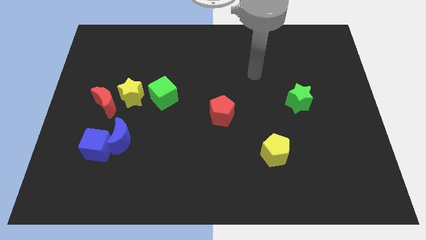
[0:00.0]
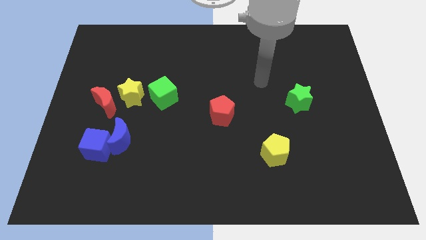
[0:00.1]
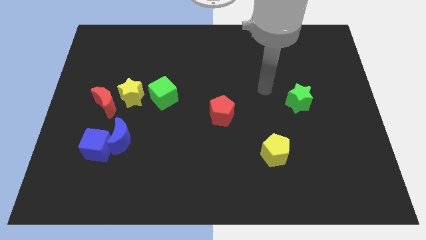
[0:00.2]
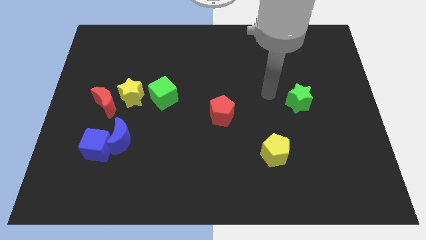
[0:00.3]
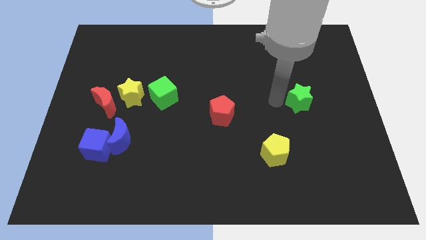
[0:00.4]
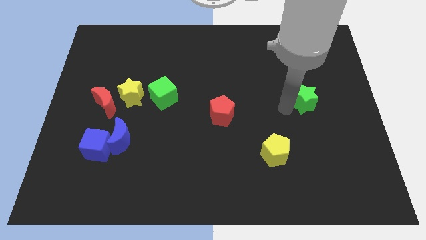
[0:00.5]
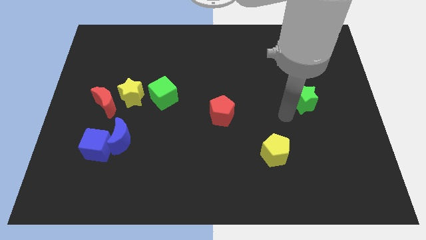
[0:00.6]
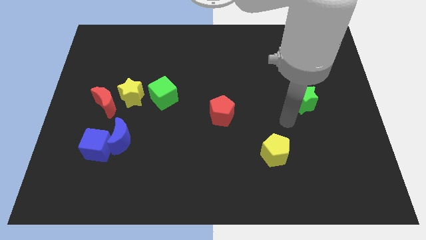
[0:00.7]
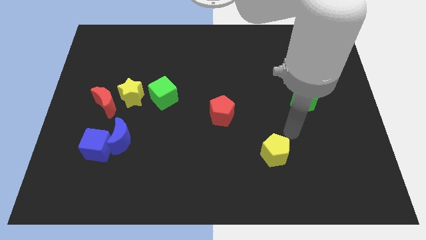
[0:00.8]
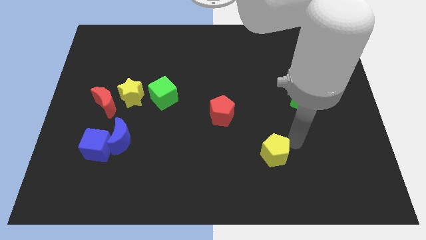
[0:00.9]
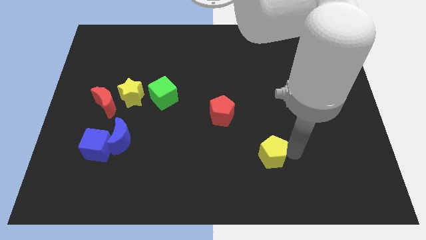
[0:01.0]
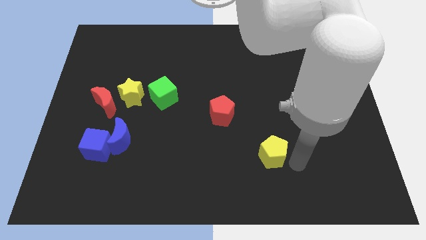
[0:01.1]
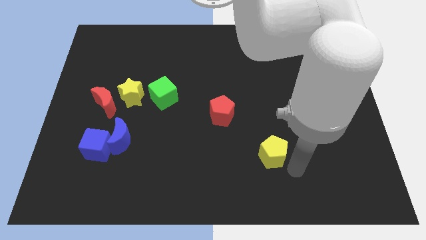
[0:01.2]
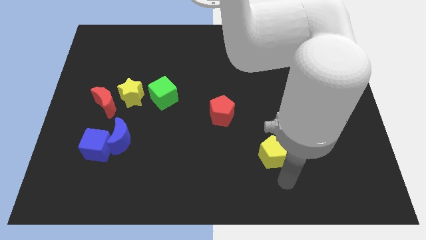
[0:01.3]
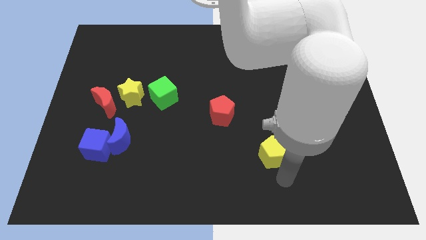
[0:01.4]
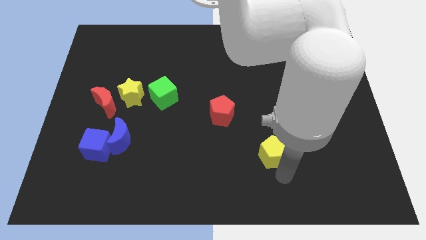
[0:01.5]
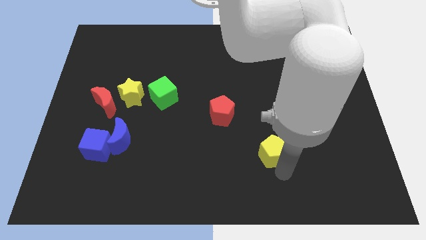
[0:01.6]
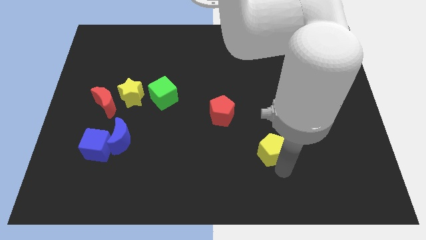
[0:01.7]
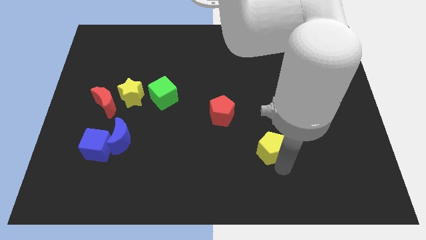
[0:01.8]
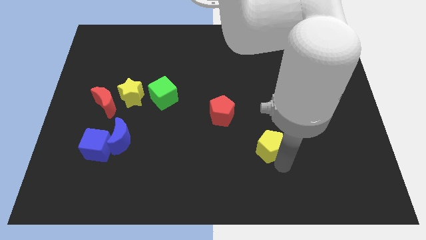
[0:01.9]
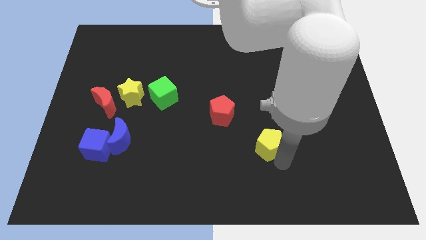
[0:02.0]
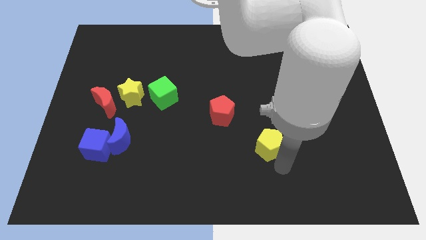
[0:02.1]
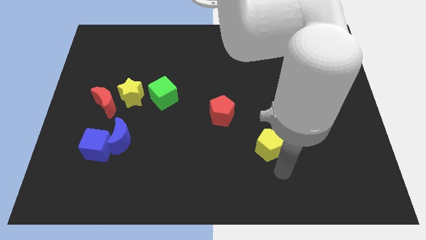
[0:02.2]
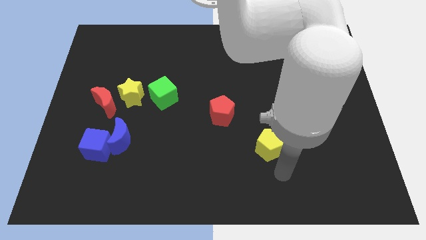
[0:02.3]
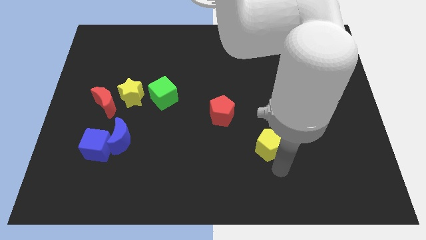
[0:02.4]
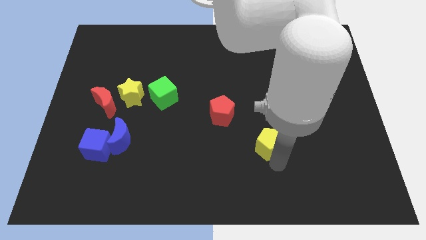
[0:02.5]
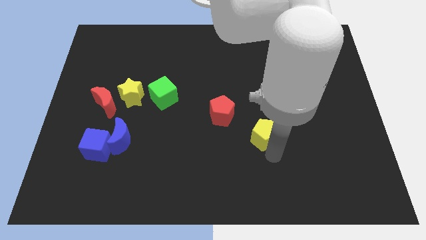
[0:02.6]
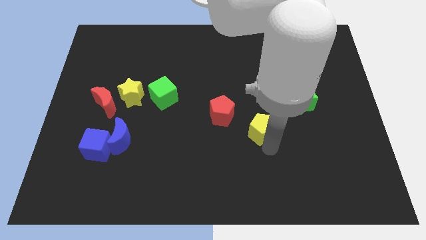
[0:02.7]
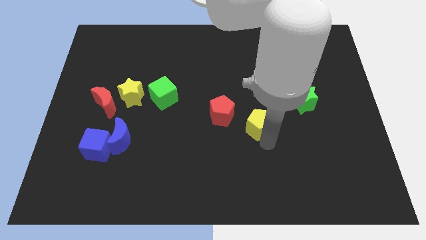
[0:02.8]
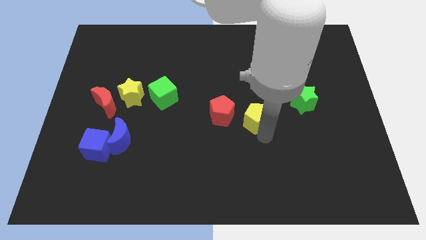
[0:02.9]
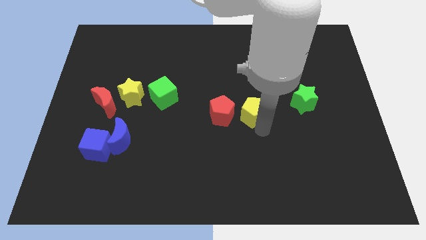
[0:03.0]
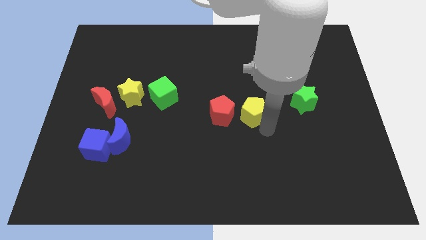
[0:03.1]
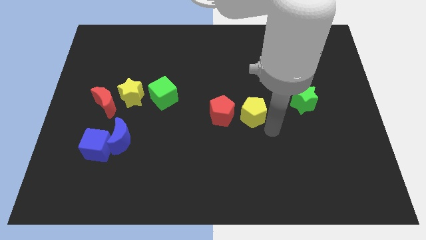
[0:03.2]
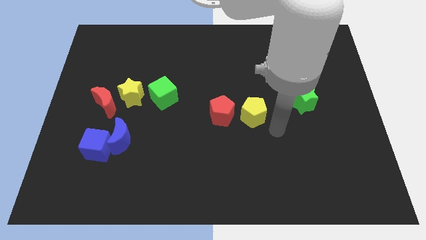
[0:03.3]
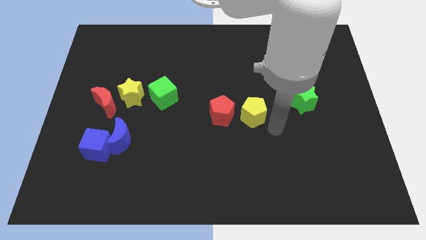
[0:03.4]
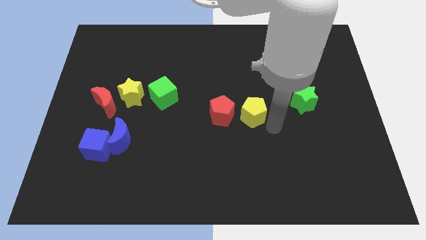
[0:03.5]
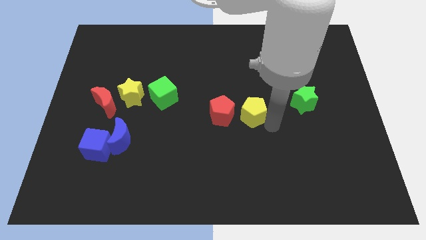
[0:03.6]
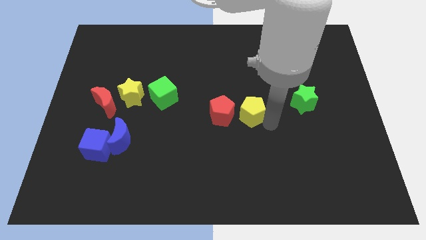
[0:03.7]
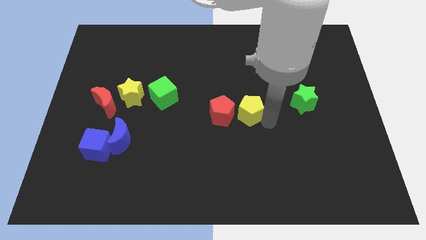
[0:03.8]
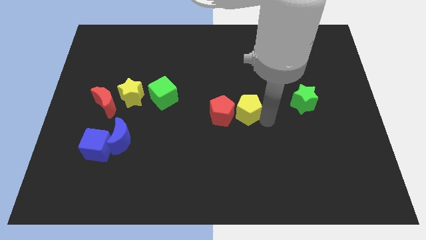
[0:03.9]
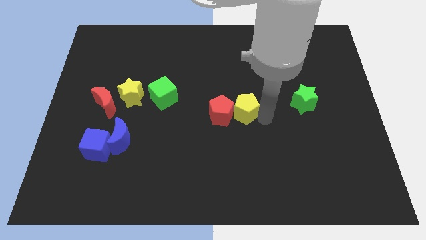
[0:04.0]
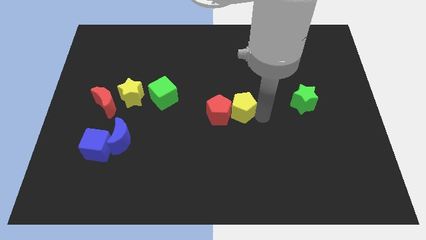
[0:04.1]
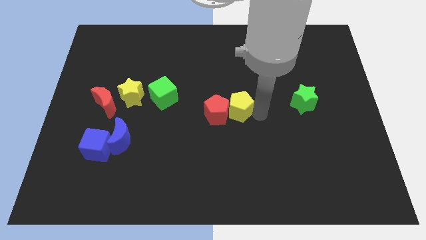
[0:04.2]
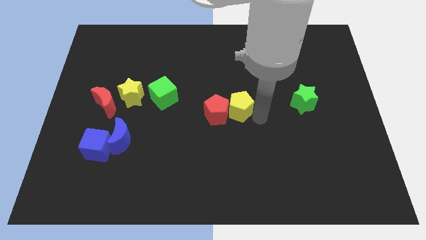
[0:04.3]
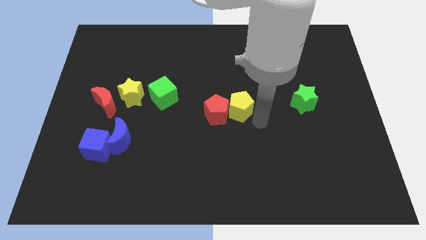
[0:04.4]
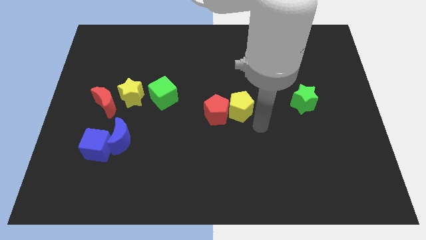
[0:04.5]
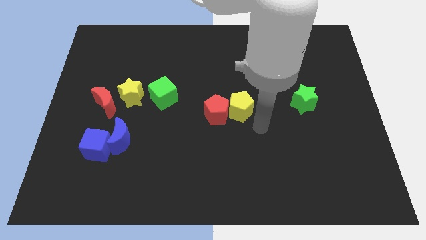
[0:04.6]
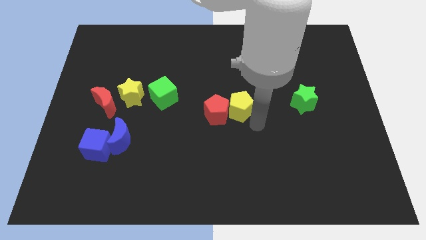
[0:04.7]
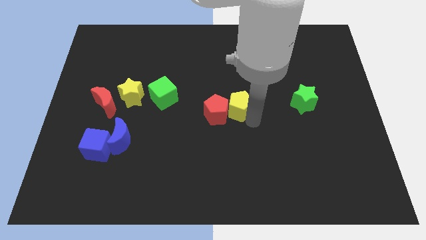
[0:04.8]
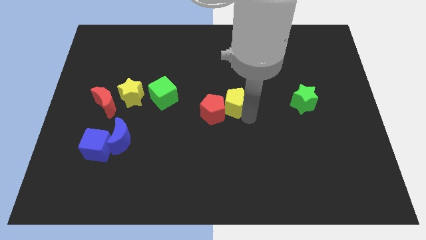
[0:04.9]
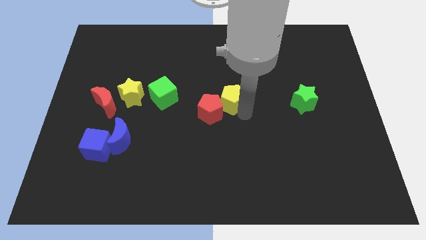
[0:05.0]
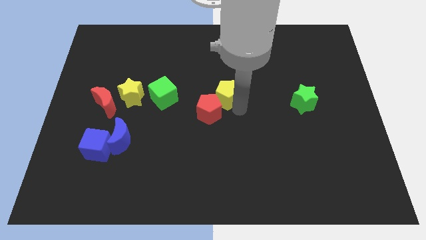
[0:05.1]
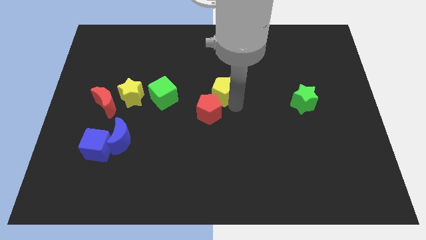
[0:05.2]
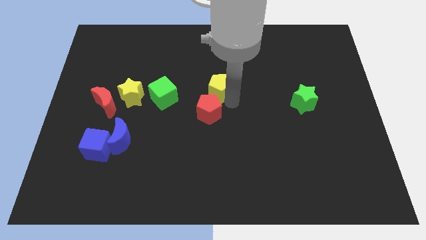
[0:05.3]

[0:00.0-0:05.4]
push the yellow pentagon diagonally upwards and left

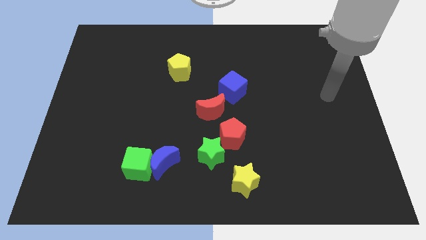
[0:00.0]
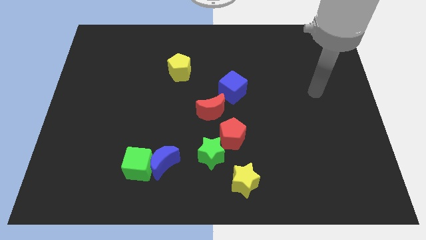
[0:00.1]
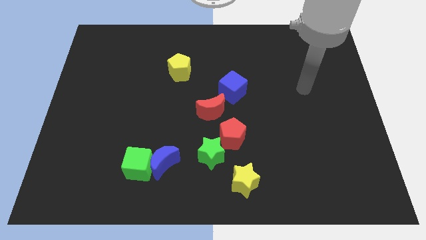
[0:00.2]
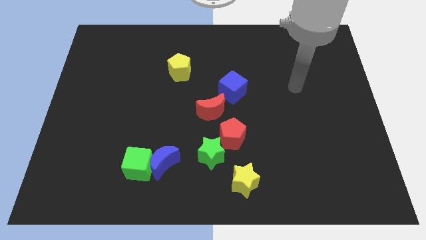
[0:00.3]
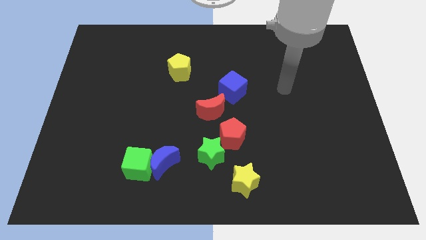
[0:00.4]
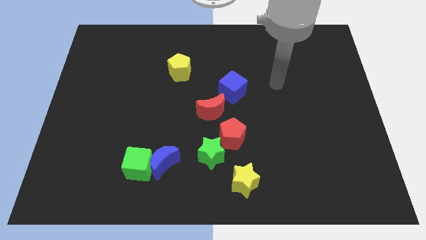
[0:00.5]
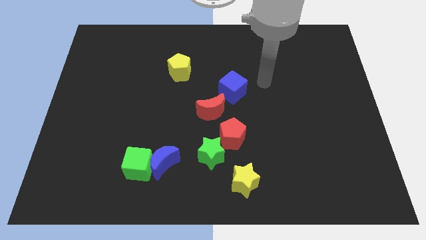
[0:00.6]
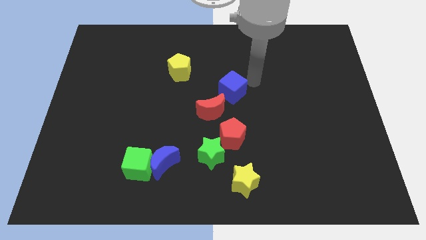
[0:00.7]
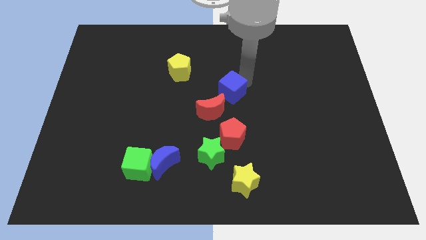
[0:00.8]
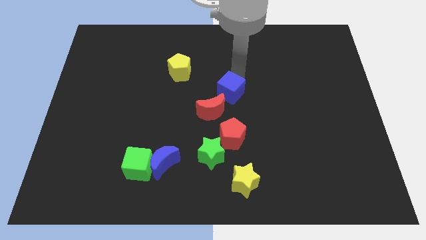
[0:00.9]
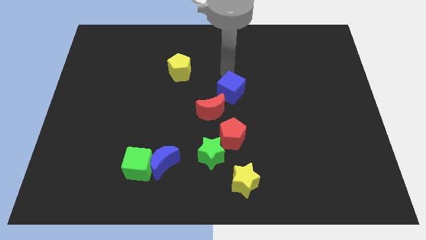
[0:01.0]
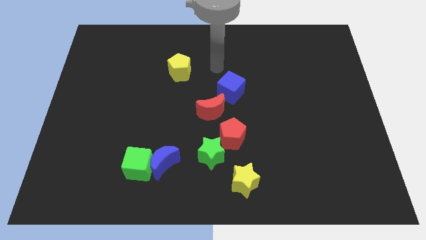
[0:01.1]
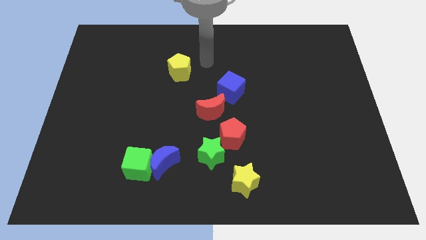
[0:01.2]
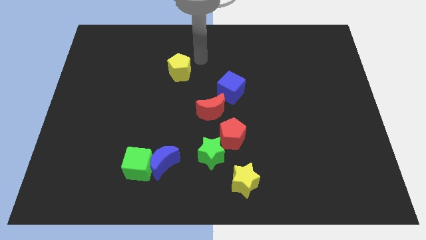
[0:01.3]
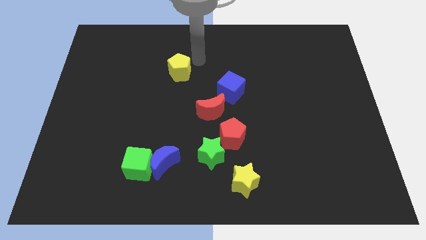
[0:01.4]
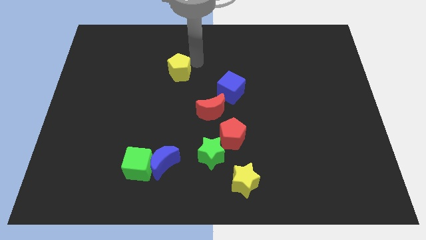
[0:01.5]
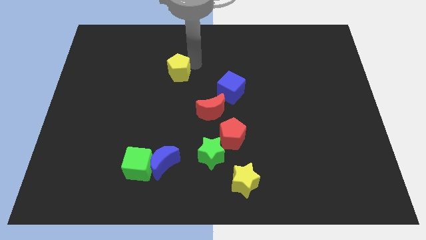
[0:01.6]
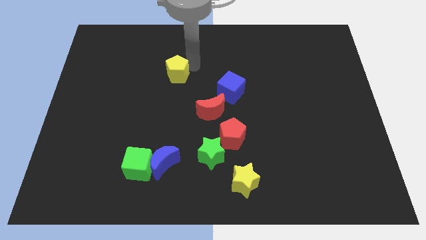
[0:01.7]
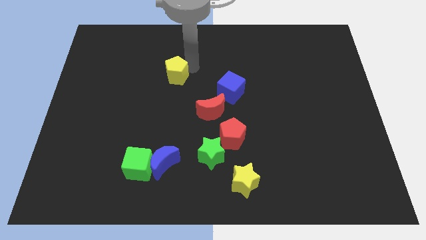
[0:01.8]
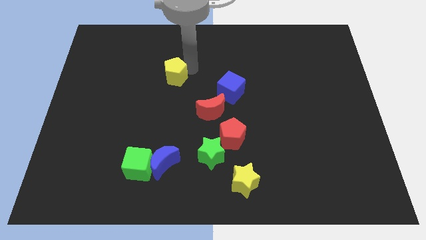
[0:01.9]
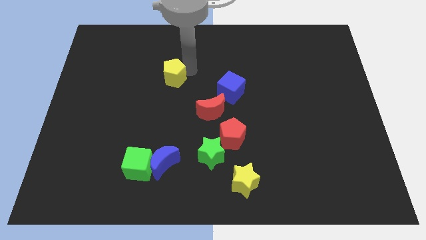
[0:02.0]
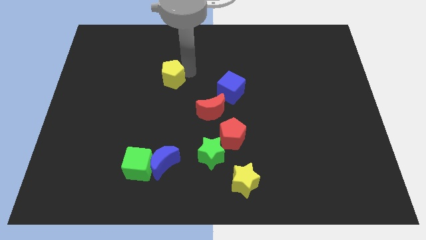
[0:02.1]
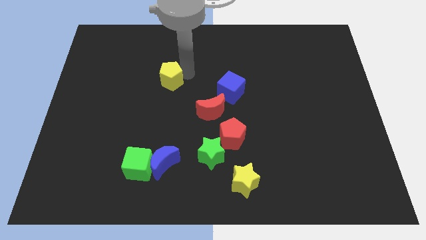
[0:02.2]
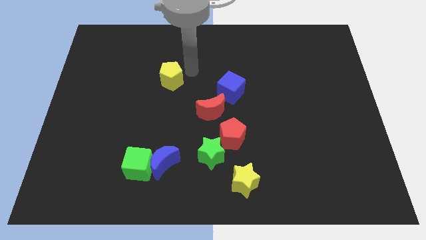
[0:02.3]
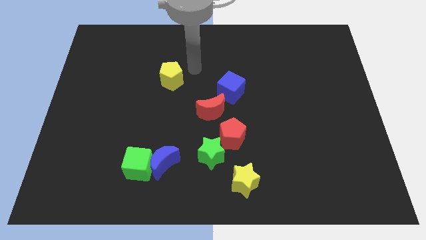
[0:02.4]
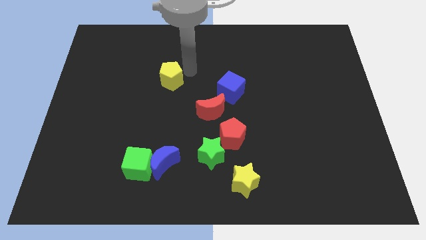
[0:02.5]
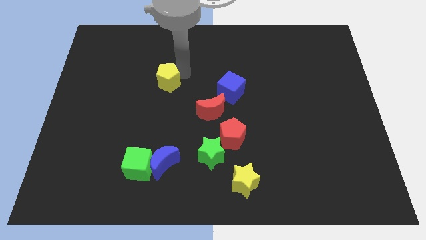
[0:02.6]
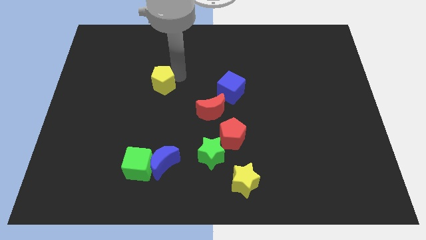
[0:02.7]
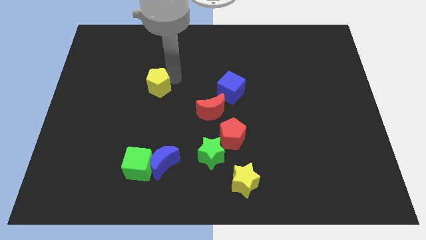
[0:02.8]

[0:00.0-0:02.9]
slightly slide the yellow pentagon diagonally down and to the left
